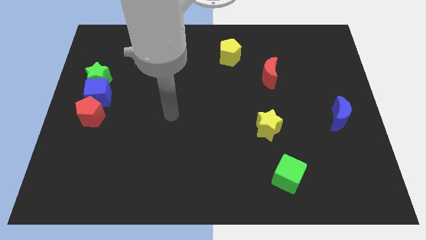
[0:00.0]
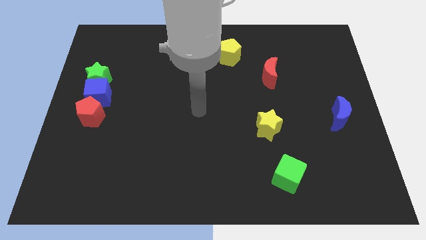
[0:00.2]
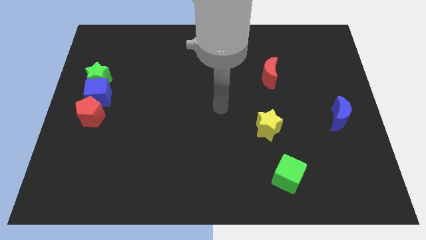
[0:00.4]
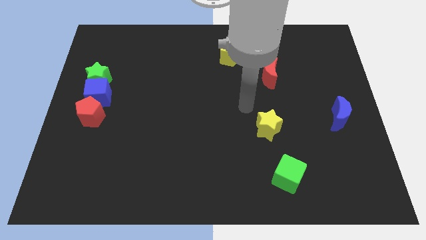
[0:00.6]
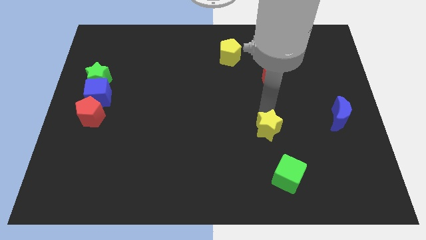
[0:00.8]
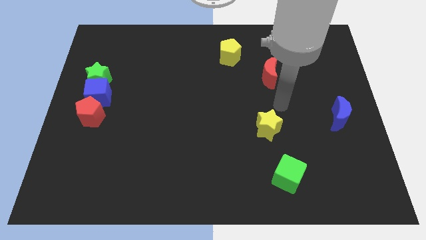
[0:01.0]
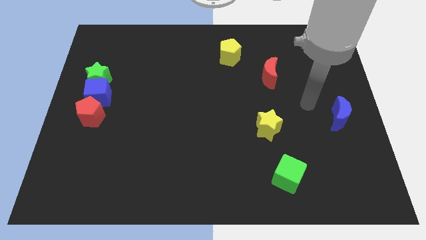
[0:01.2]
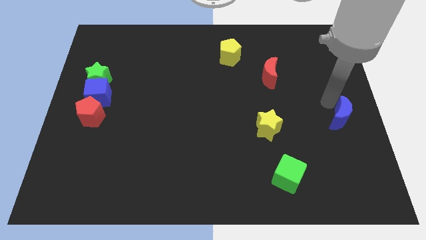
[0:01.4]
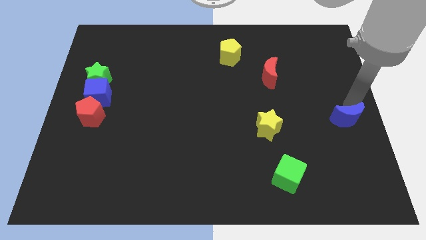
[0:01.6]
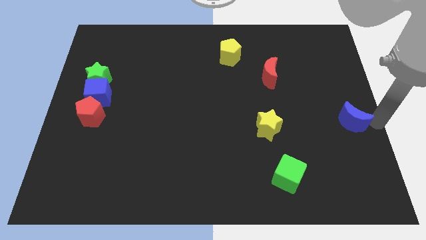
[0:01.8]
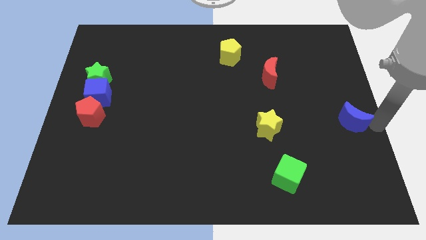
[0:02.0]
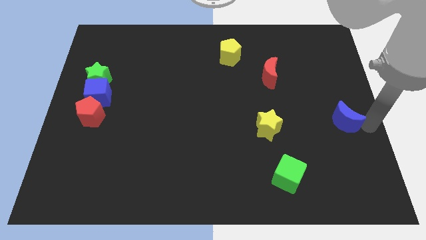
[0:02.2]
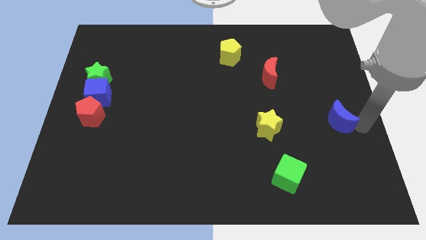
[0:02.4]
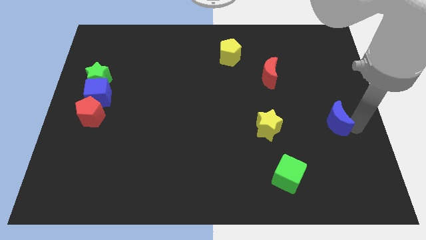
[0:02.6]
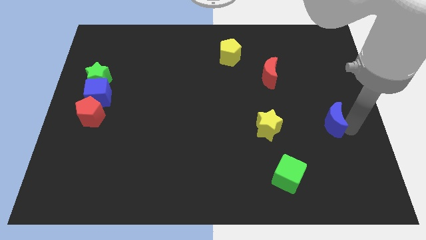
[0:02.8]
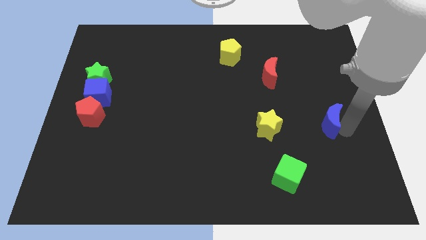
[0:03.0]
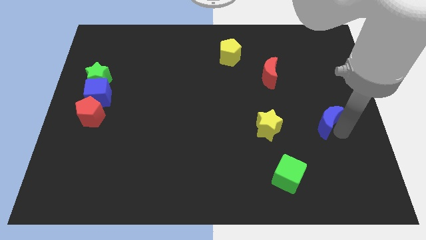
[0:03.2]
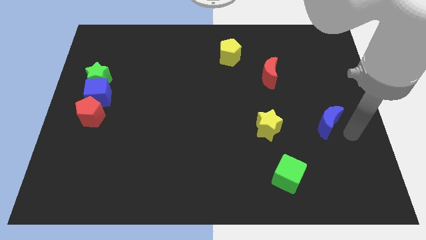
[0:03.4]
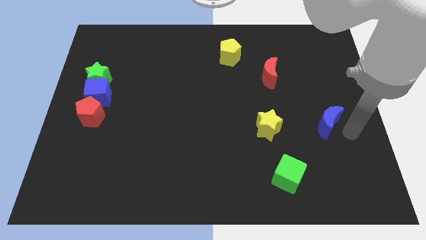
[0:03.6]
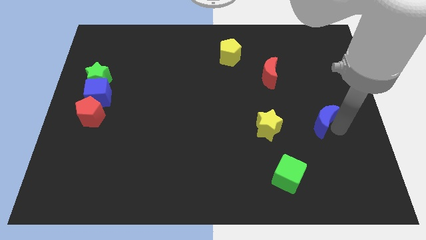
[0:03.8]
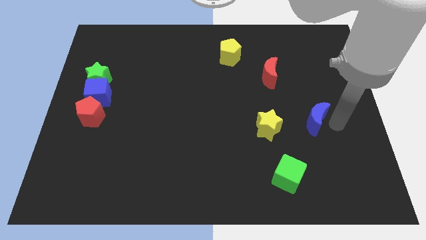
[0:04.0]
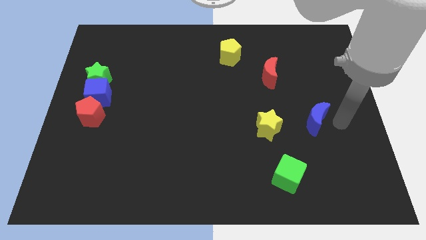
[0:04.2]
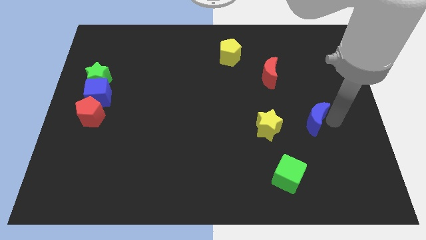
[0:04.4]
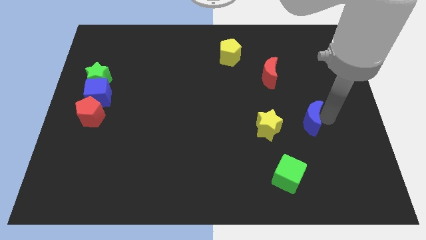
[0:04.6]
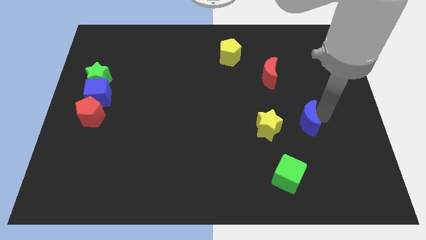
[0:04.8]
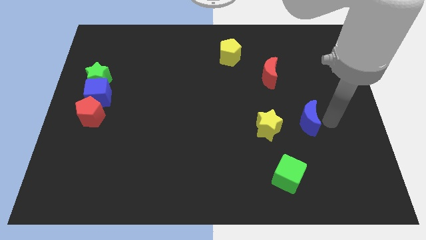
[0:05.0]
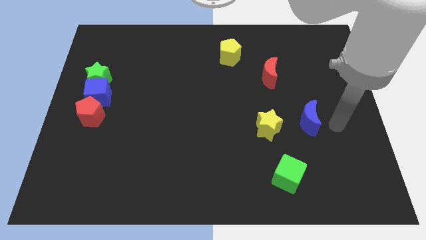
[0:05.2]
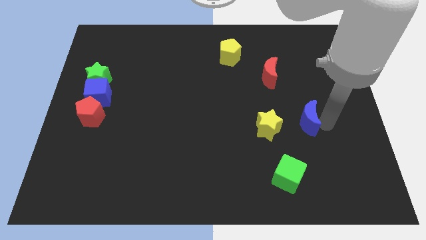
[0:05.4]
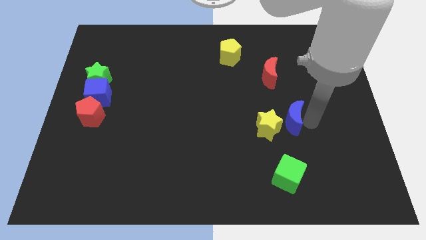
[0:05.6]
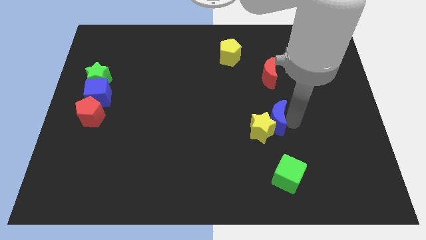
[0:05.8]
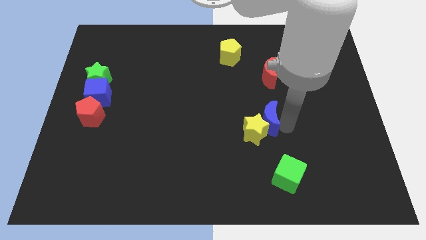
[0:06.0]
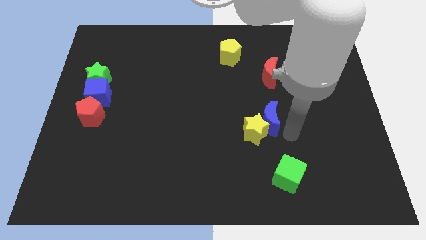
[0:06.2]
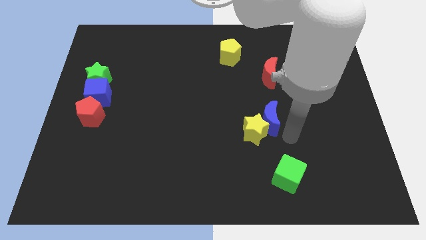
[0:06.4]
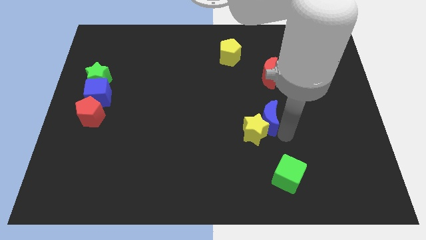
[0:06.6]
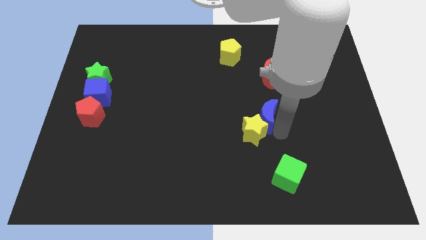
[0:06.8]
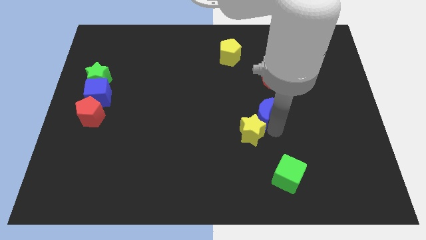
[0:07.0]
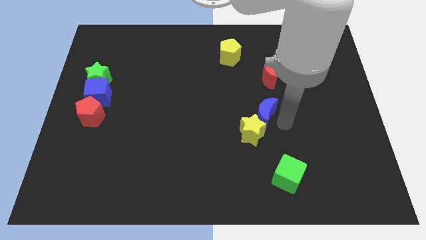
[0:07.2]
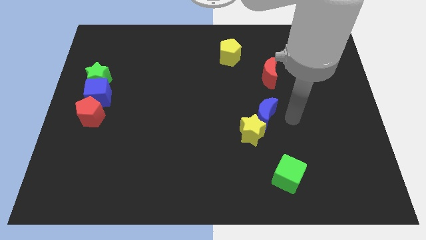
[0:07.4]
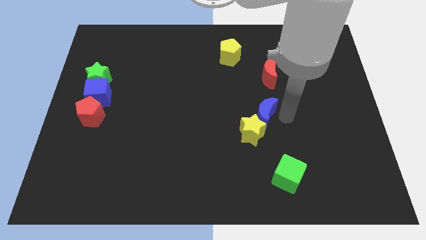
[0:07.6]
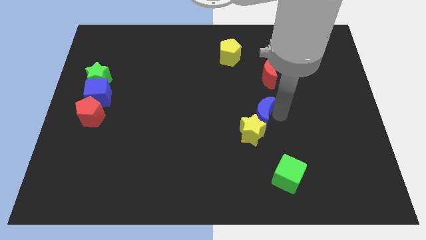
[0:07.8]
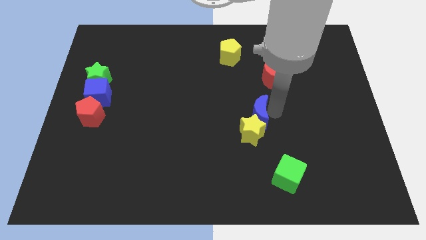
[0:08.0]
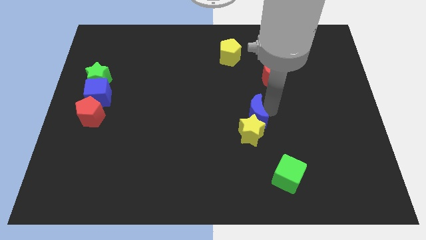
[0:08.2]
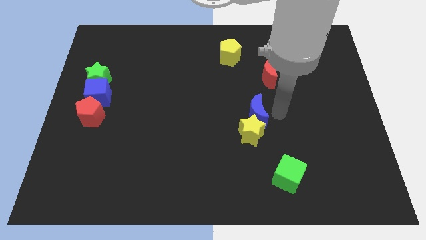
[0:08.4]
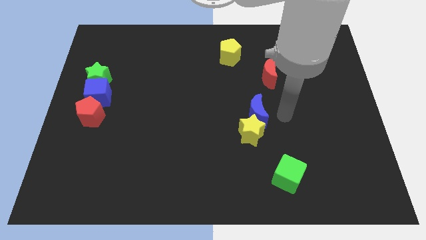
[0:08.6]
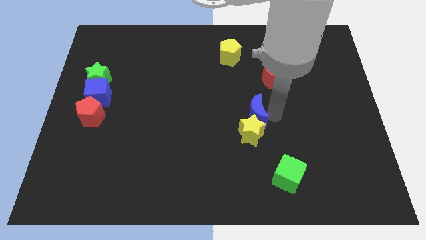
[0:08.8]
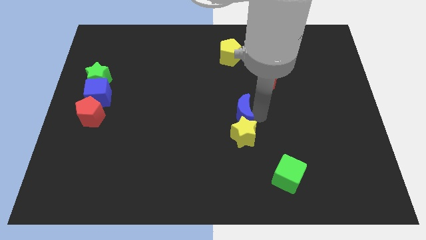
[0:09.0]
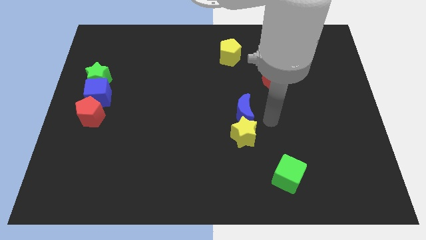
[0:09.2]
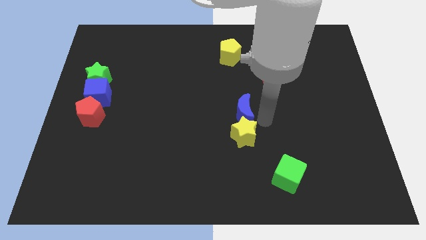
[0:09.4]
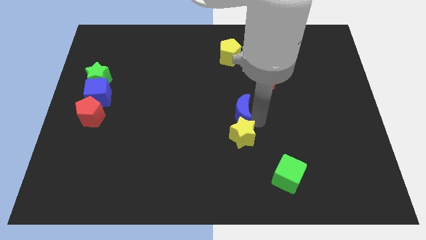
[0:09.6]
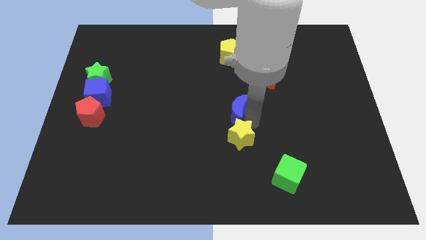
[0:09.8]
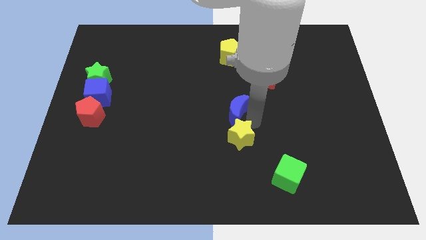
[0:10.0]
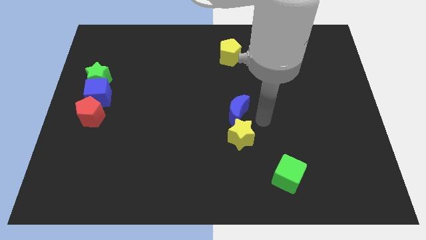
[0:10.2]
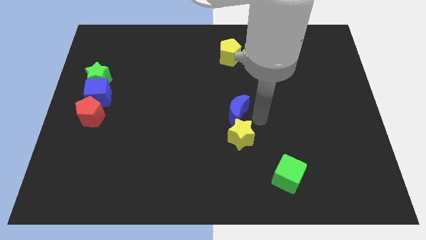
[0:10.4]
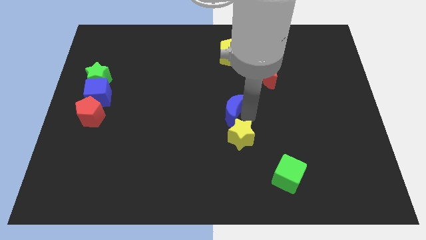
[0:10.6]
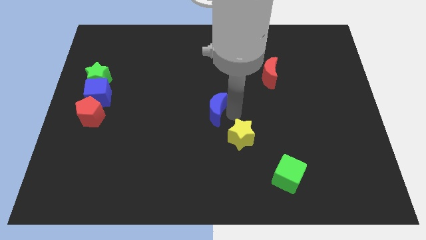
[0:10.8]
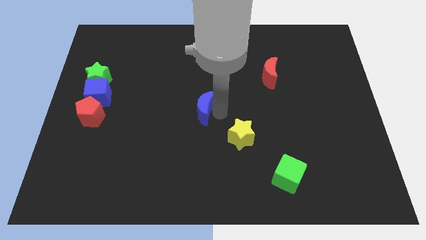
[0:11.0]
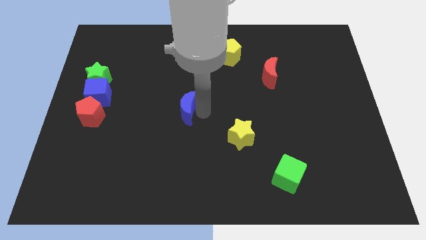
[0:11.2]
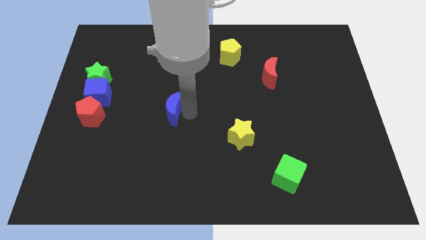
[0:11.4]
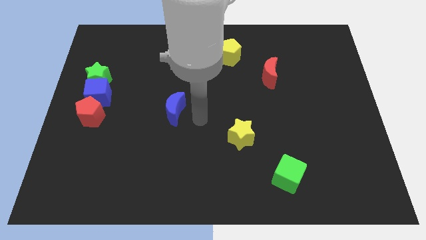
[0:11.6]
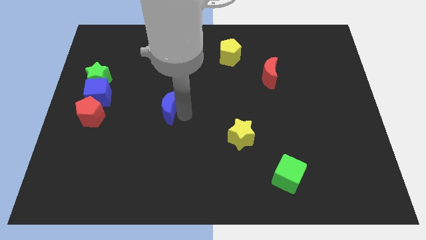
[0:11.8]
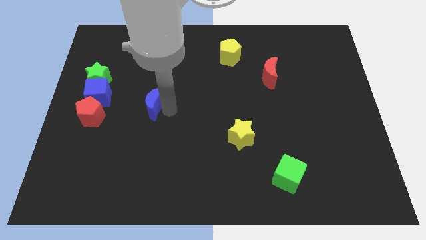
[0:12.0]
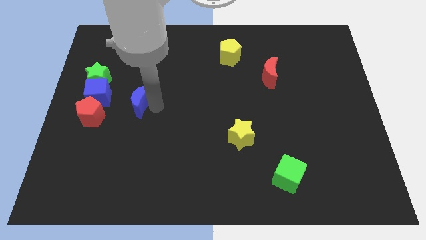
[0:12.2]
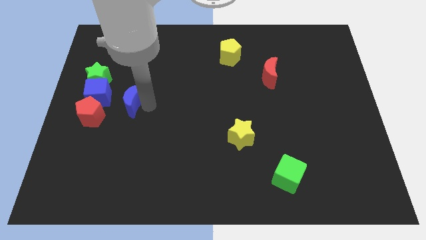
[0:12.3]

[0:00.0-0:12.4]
slide the blue moon to the top right side of the red pentagon

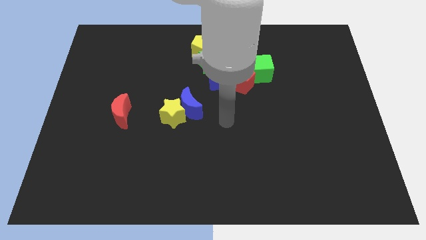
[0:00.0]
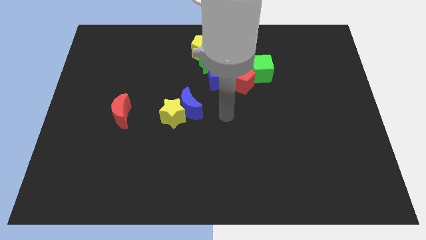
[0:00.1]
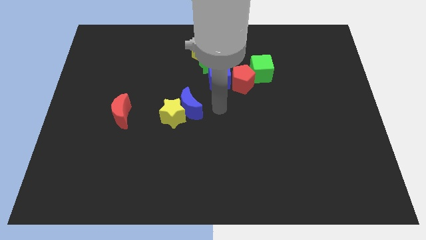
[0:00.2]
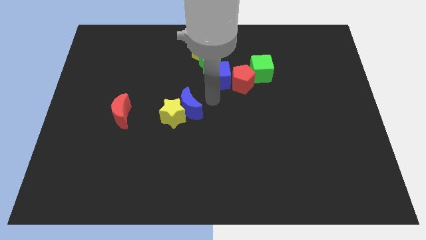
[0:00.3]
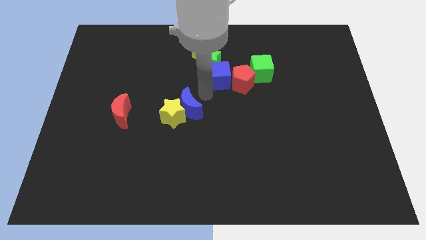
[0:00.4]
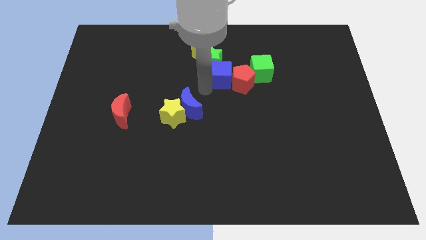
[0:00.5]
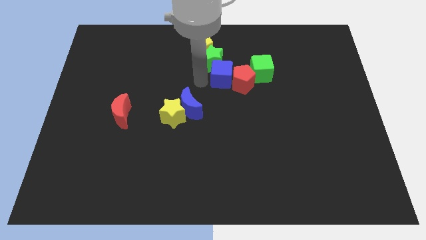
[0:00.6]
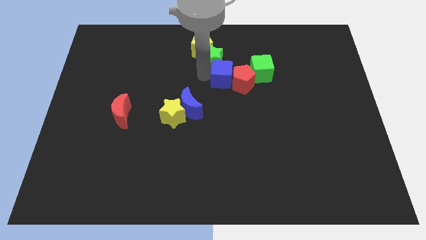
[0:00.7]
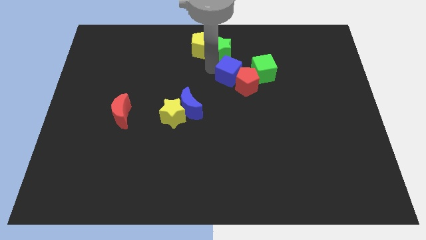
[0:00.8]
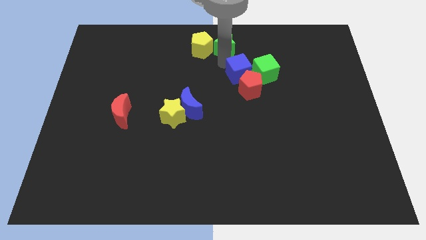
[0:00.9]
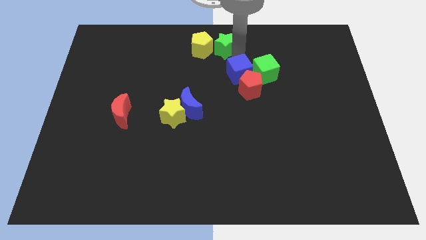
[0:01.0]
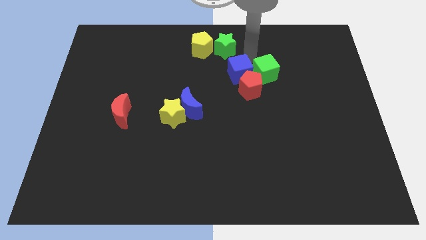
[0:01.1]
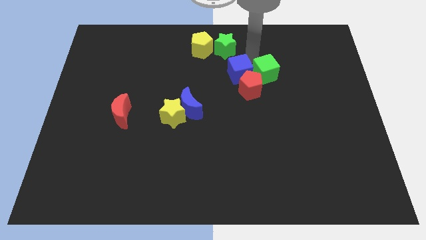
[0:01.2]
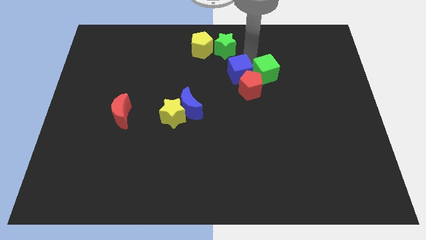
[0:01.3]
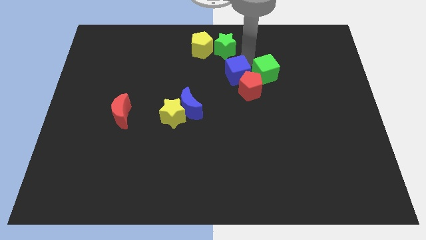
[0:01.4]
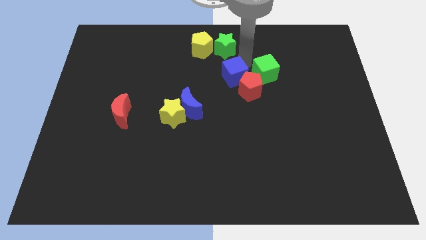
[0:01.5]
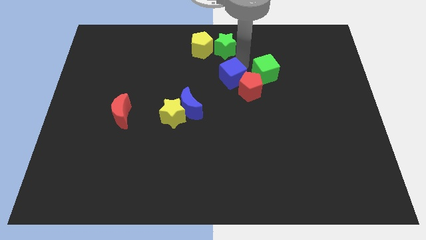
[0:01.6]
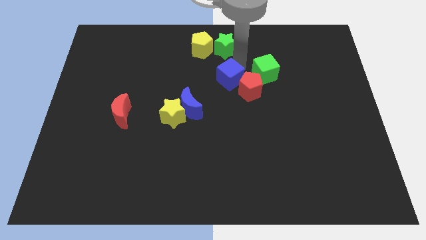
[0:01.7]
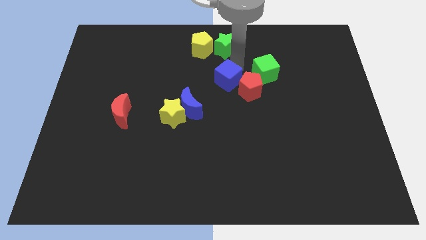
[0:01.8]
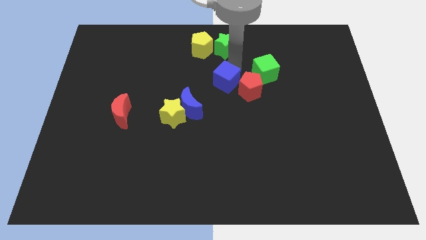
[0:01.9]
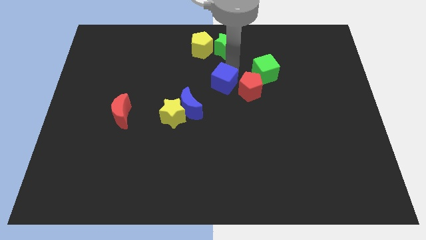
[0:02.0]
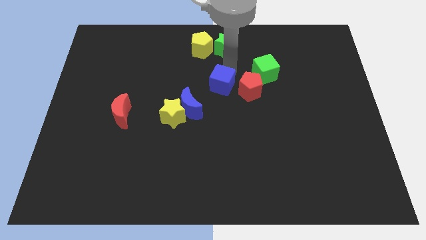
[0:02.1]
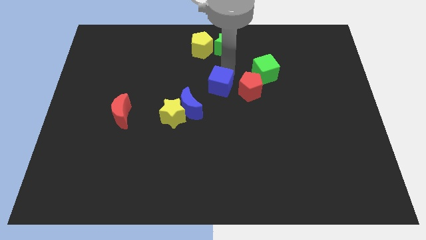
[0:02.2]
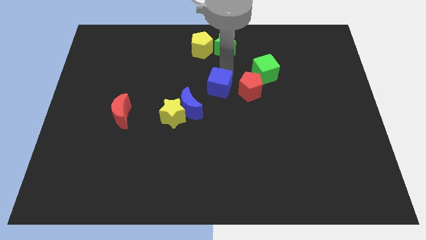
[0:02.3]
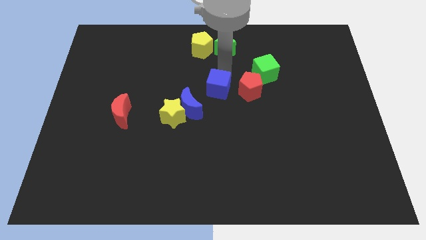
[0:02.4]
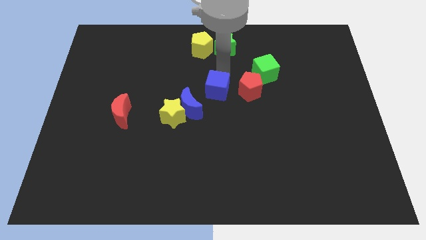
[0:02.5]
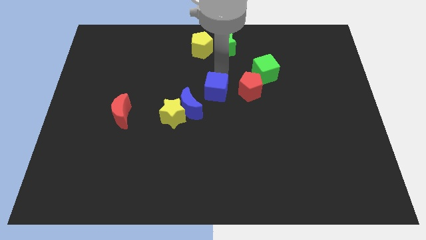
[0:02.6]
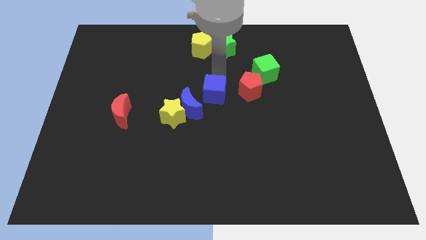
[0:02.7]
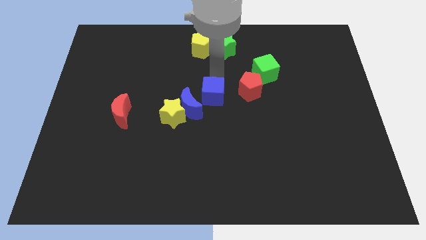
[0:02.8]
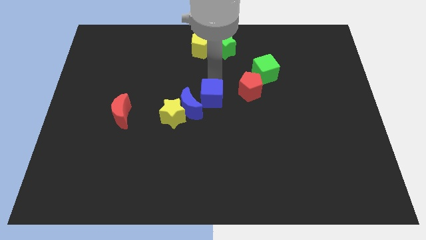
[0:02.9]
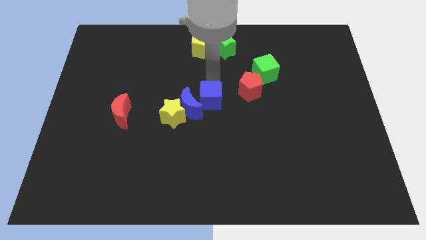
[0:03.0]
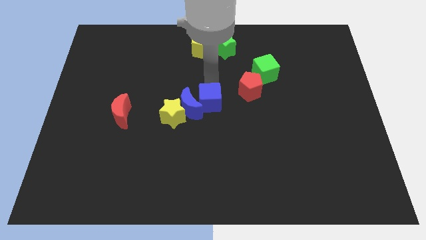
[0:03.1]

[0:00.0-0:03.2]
slide the blue cube right of the yellow star
